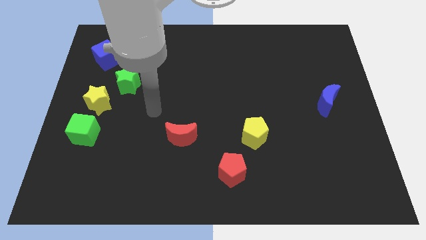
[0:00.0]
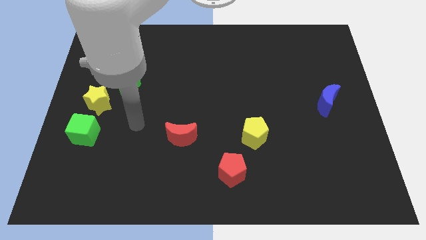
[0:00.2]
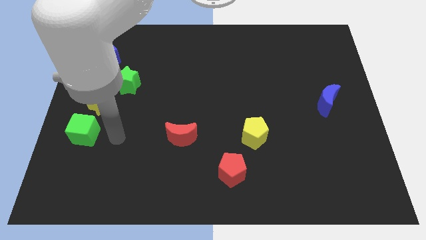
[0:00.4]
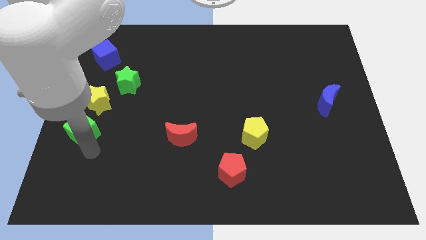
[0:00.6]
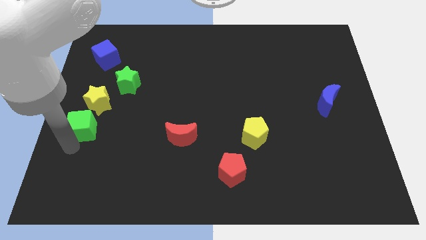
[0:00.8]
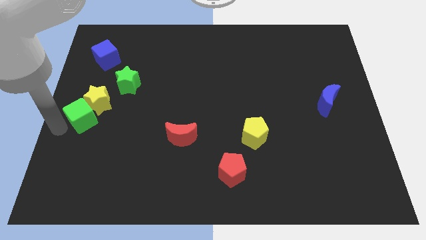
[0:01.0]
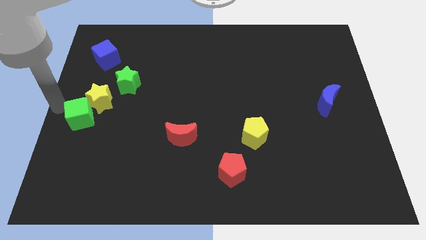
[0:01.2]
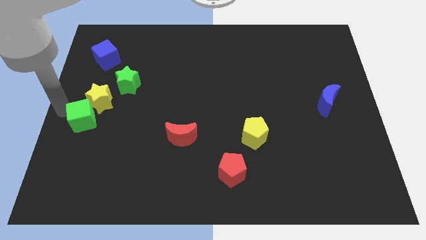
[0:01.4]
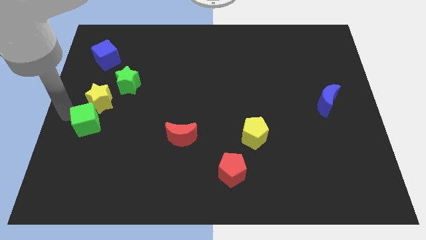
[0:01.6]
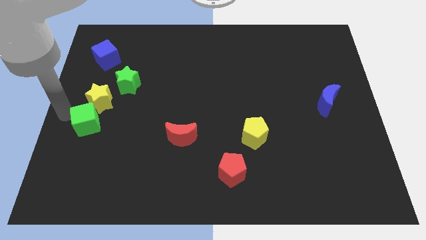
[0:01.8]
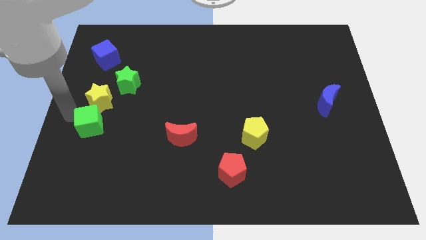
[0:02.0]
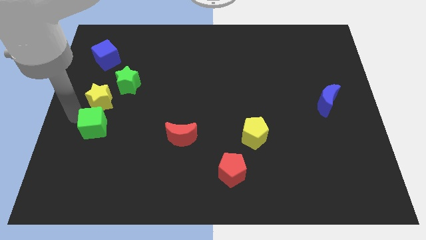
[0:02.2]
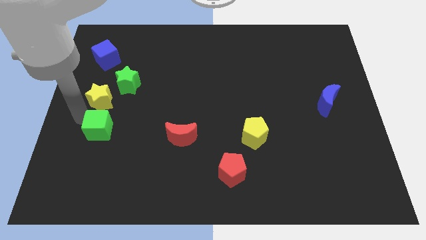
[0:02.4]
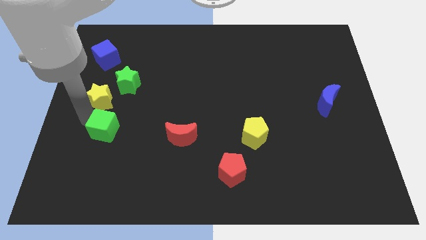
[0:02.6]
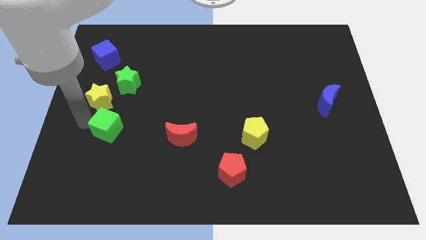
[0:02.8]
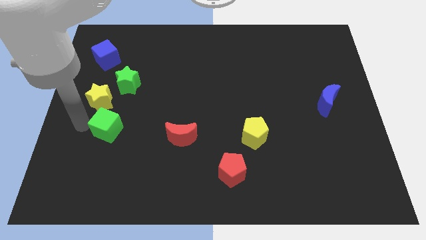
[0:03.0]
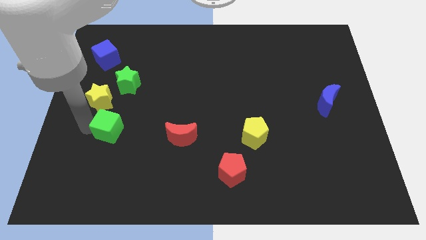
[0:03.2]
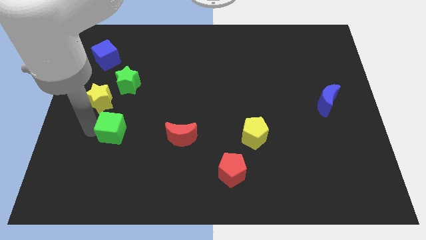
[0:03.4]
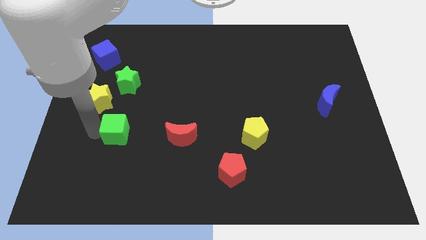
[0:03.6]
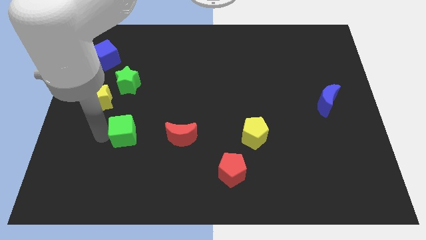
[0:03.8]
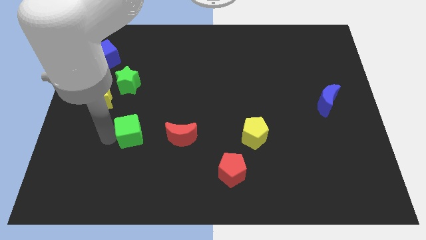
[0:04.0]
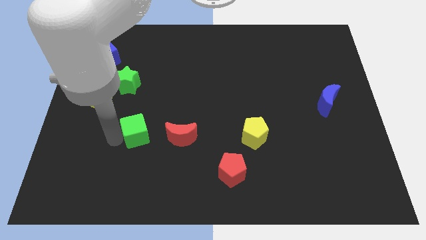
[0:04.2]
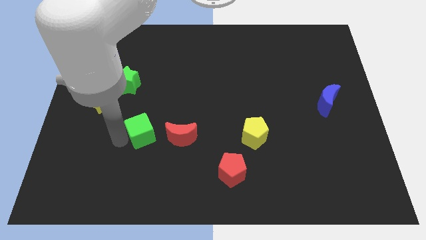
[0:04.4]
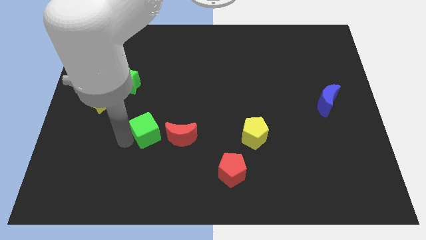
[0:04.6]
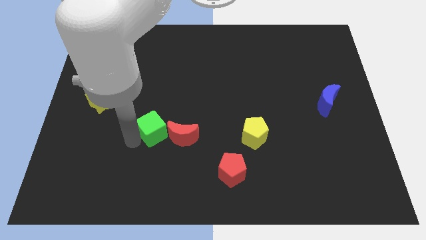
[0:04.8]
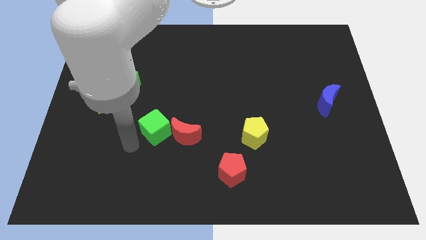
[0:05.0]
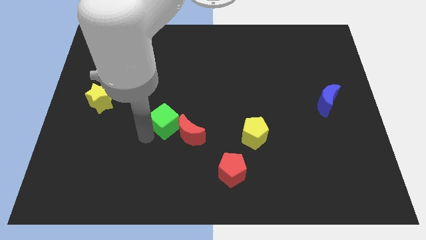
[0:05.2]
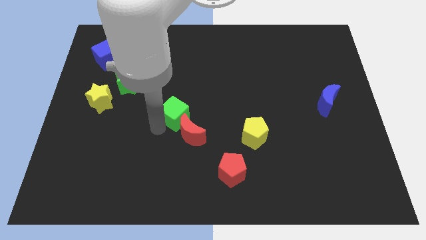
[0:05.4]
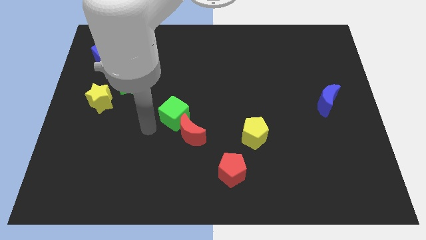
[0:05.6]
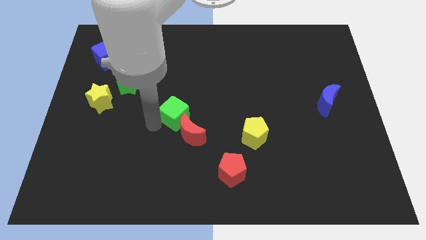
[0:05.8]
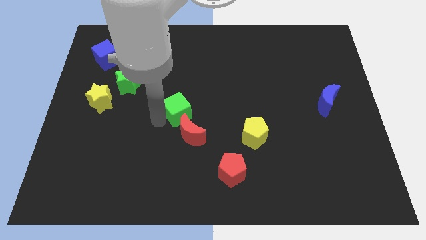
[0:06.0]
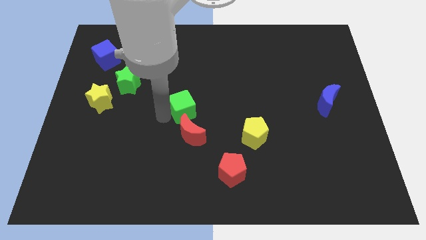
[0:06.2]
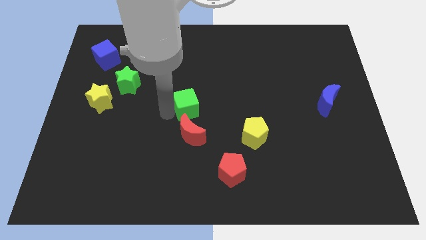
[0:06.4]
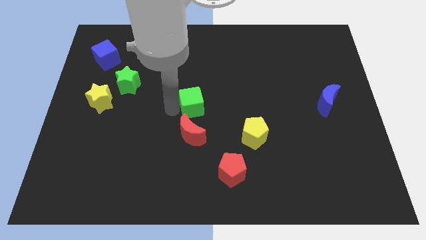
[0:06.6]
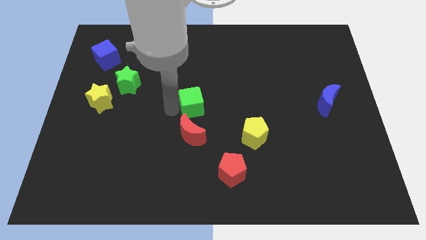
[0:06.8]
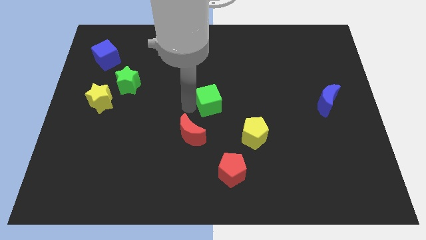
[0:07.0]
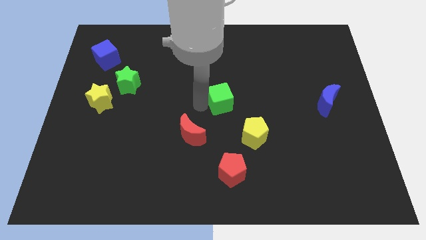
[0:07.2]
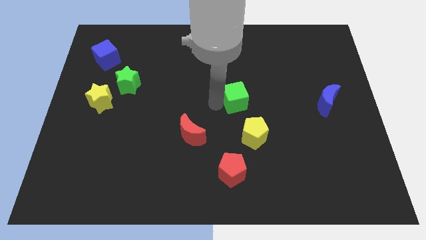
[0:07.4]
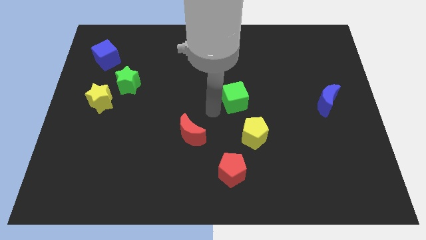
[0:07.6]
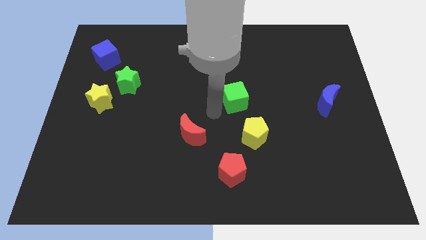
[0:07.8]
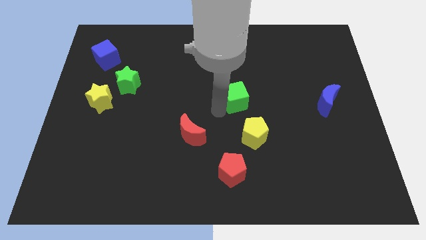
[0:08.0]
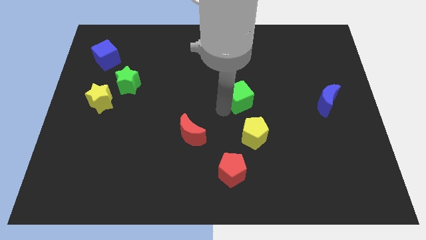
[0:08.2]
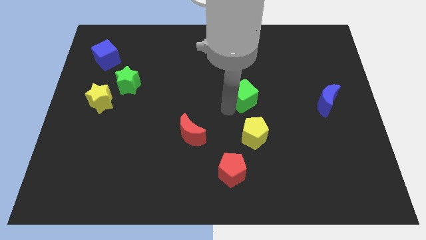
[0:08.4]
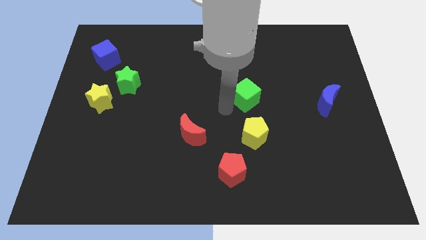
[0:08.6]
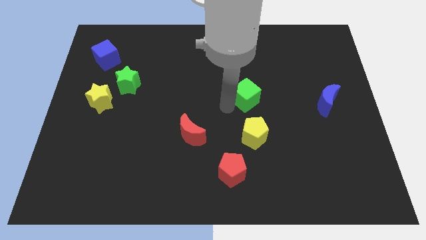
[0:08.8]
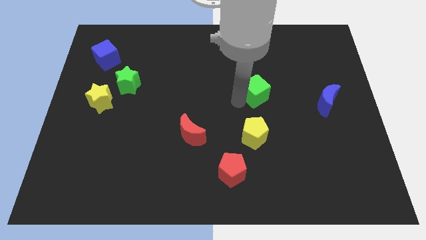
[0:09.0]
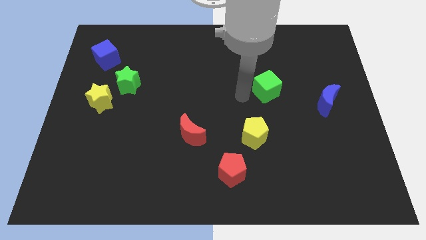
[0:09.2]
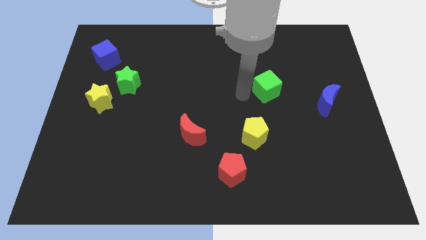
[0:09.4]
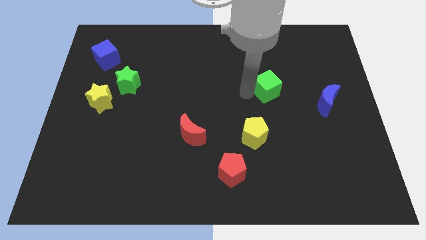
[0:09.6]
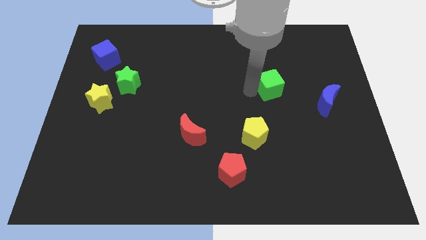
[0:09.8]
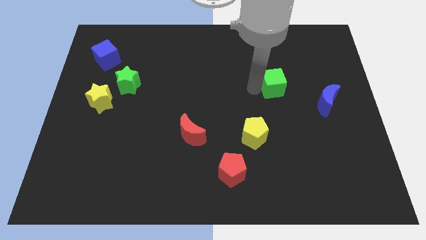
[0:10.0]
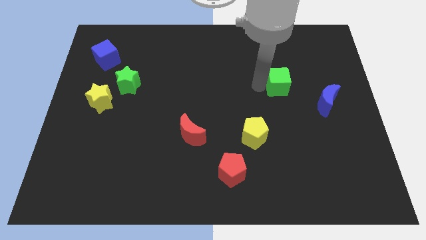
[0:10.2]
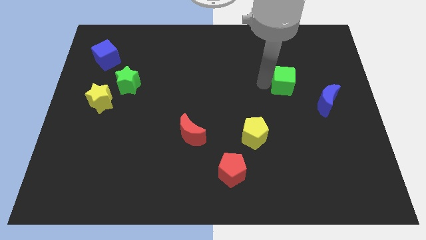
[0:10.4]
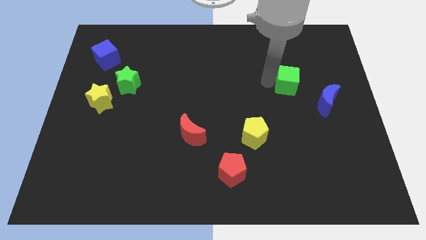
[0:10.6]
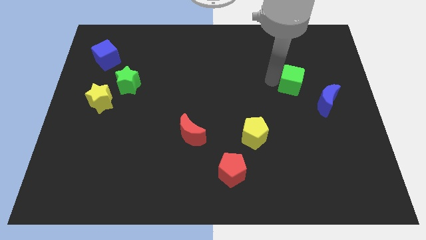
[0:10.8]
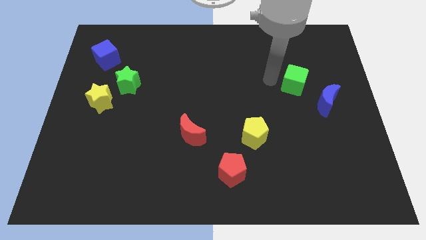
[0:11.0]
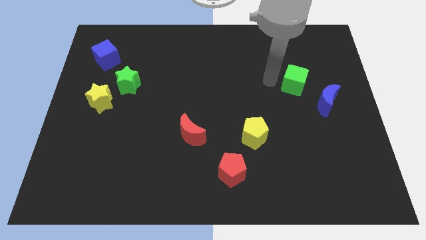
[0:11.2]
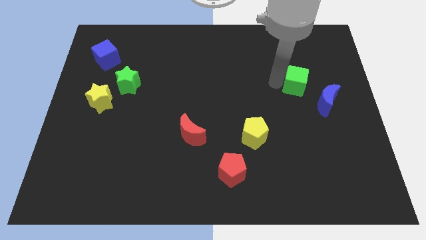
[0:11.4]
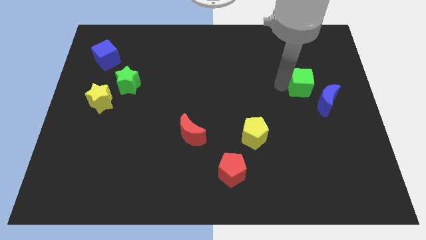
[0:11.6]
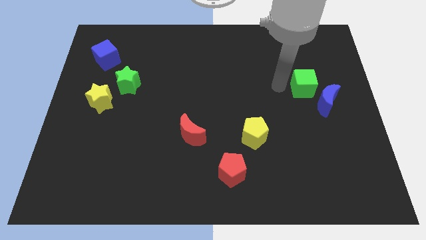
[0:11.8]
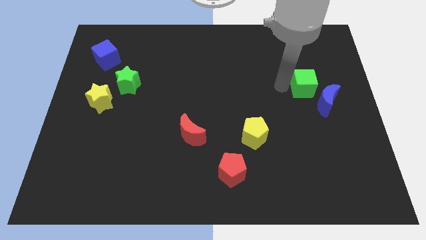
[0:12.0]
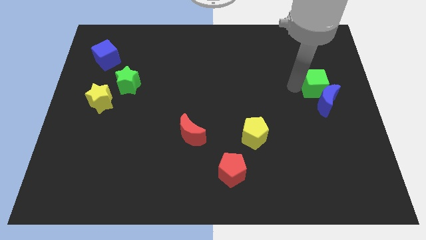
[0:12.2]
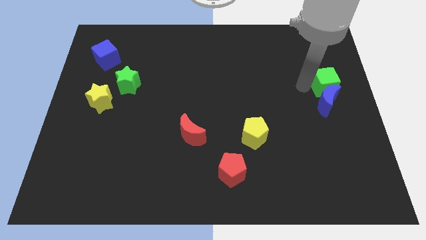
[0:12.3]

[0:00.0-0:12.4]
move the green cube to the right side of the board

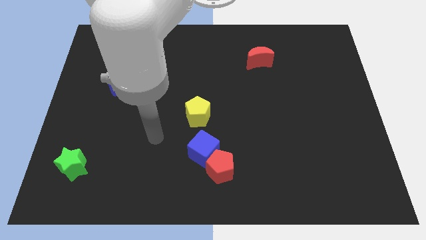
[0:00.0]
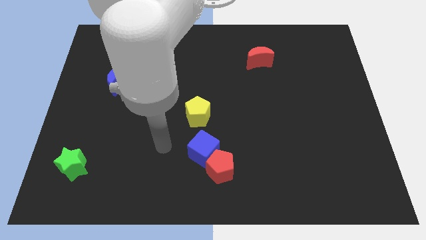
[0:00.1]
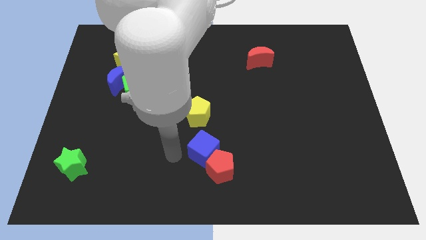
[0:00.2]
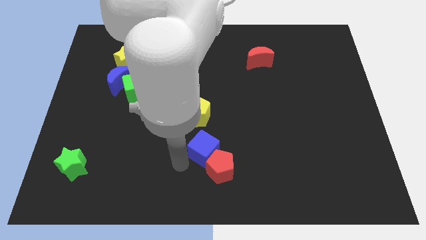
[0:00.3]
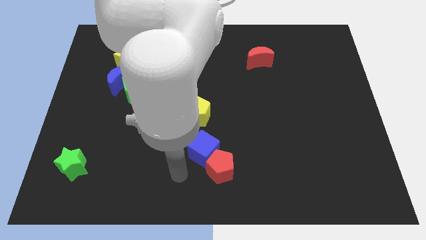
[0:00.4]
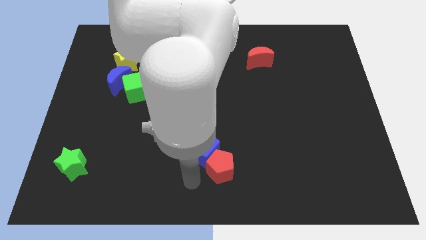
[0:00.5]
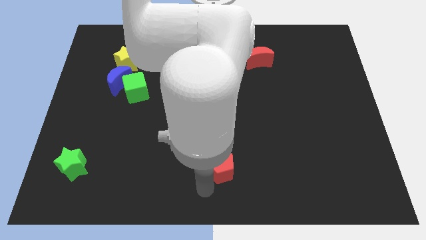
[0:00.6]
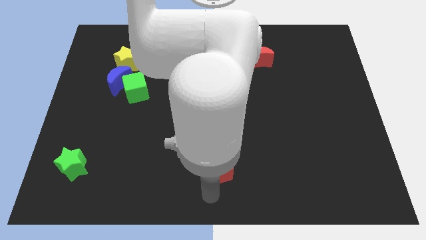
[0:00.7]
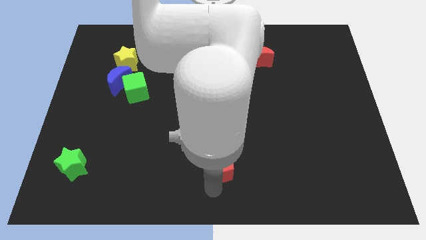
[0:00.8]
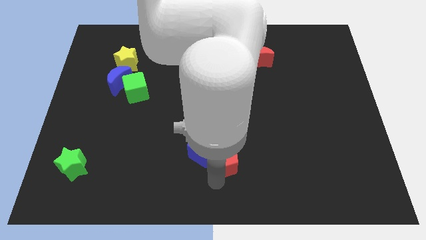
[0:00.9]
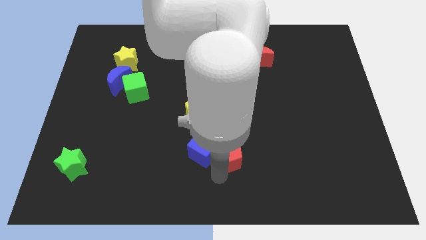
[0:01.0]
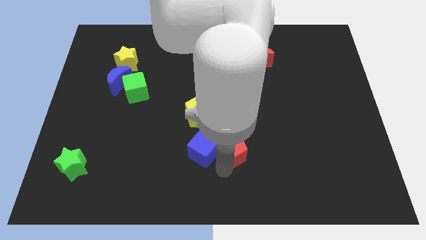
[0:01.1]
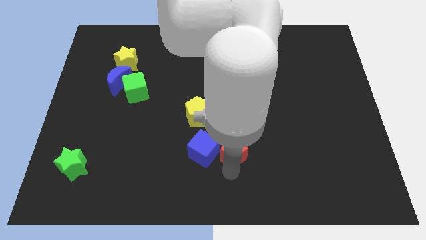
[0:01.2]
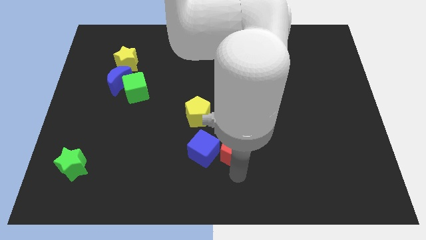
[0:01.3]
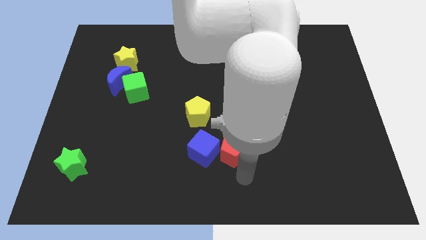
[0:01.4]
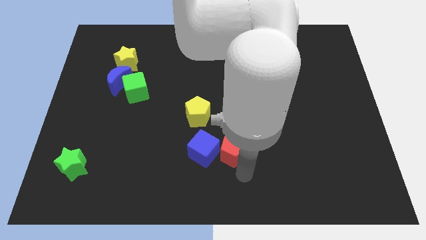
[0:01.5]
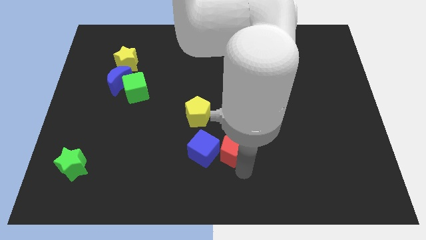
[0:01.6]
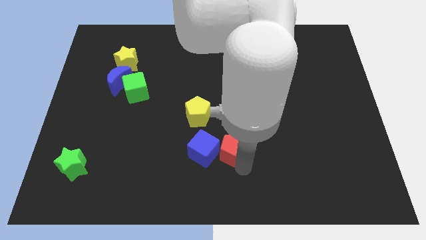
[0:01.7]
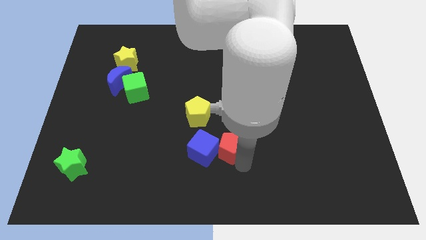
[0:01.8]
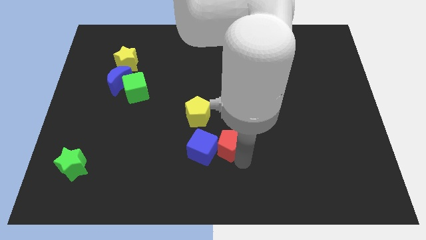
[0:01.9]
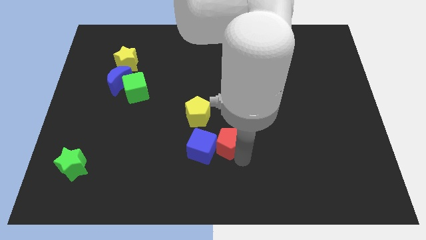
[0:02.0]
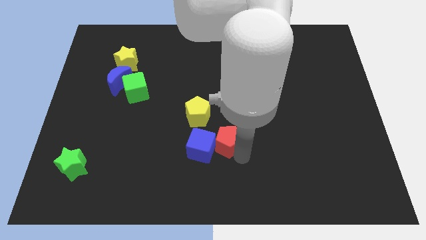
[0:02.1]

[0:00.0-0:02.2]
move the red pentagon to the center of the board
